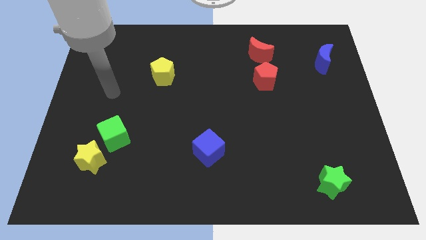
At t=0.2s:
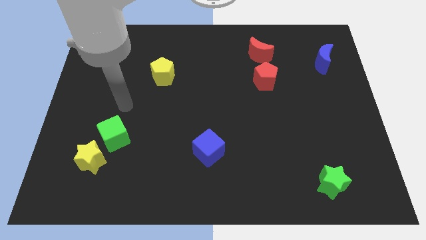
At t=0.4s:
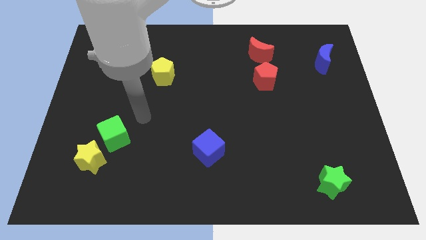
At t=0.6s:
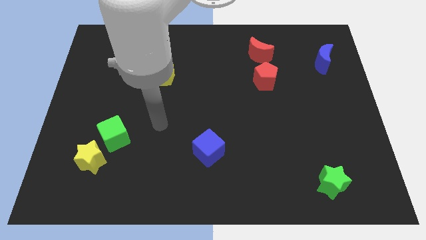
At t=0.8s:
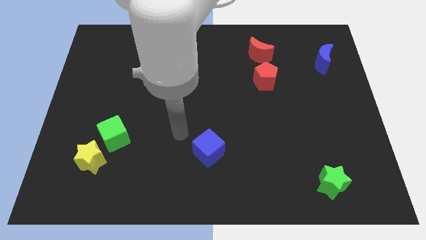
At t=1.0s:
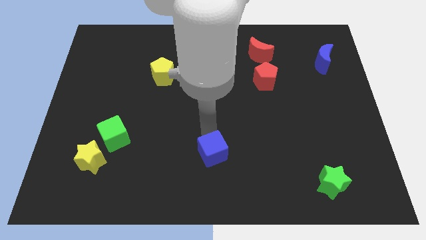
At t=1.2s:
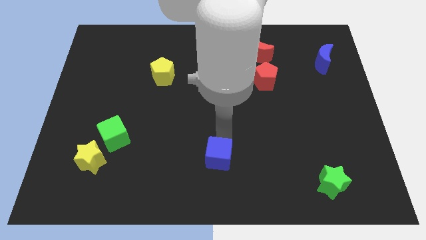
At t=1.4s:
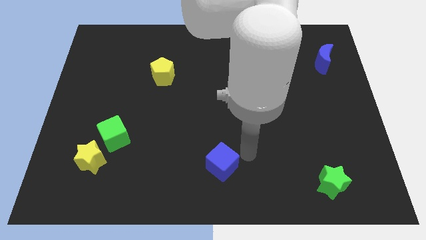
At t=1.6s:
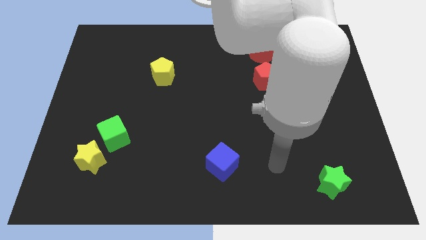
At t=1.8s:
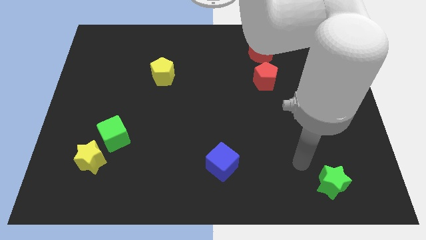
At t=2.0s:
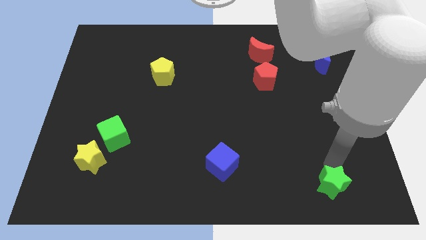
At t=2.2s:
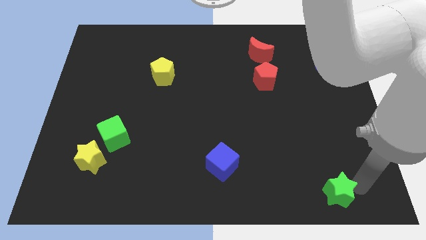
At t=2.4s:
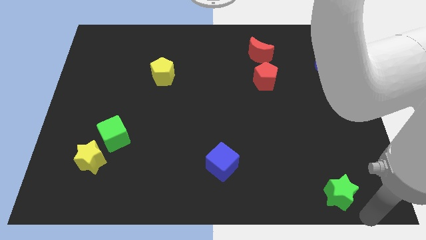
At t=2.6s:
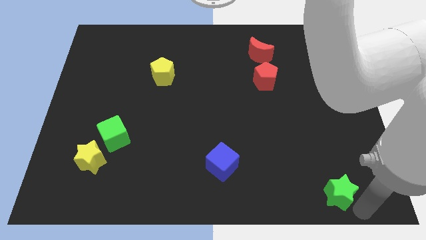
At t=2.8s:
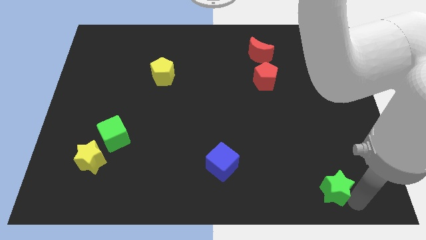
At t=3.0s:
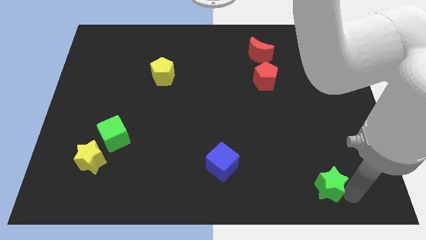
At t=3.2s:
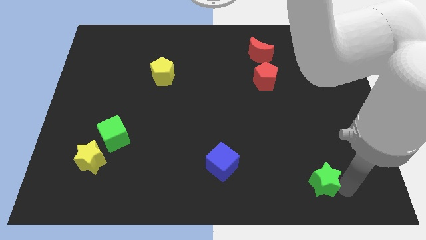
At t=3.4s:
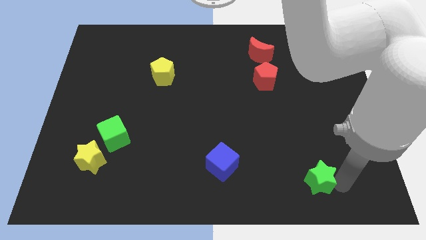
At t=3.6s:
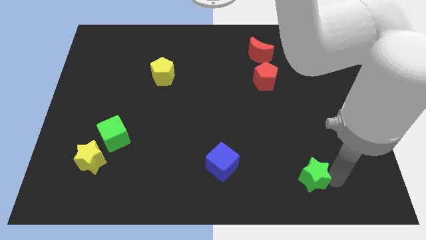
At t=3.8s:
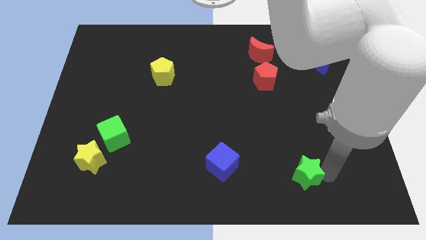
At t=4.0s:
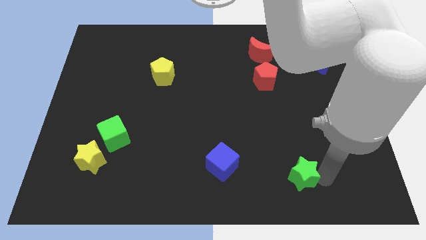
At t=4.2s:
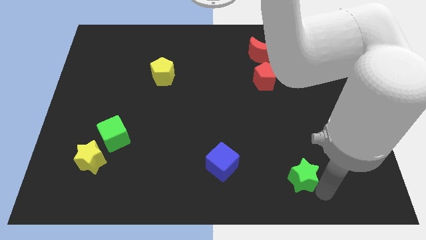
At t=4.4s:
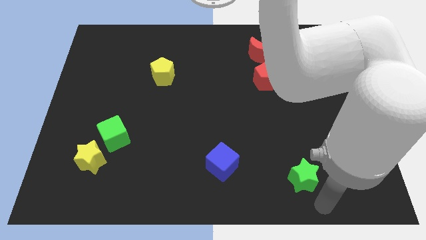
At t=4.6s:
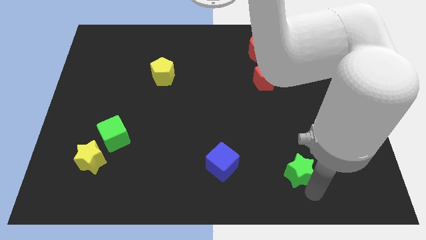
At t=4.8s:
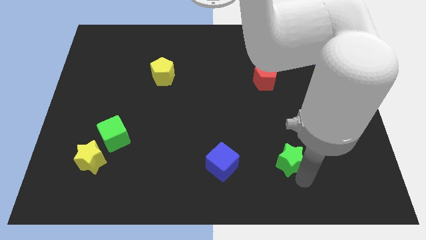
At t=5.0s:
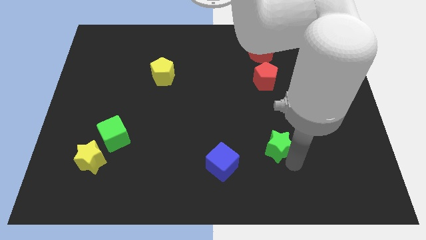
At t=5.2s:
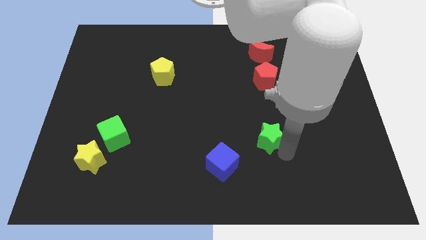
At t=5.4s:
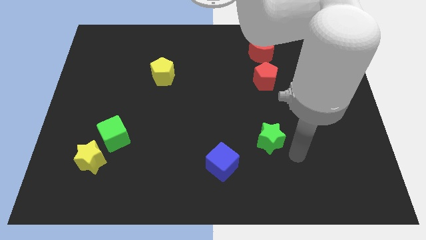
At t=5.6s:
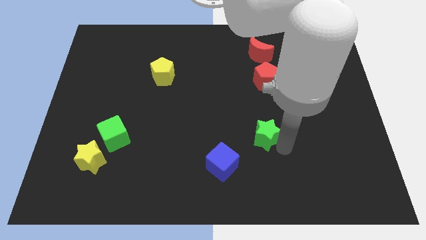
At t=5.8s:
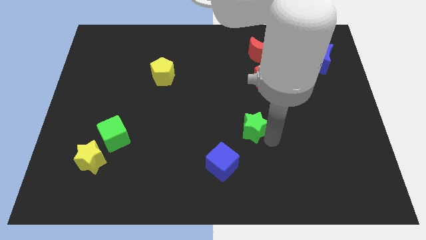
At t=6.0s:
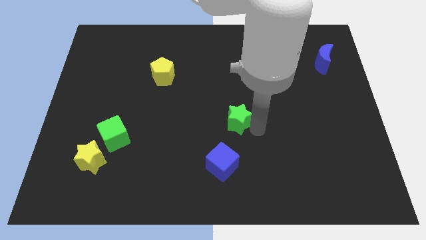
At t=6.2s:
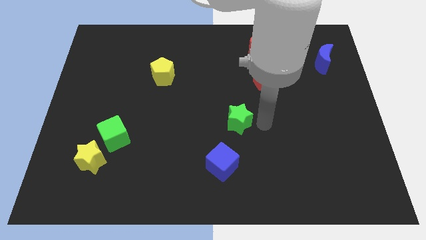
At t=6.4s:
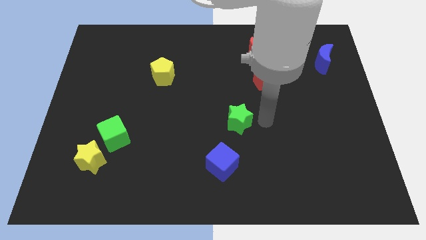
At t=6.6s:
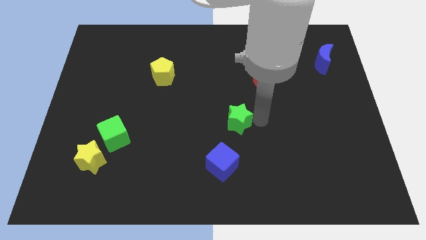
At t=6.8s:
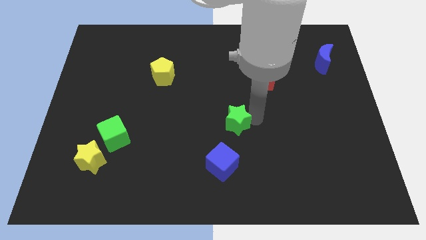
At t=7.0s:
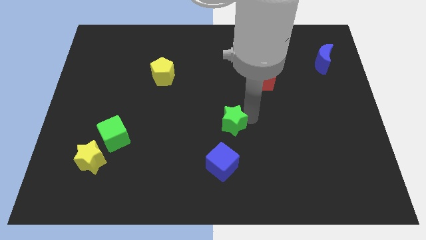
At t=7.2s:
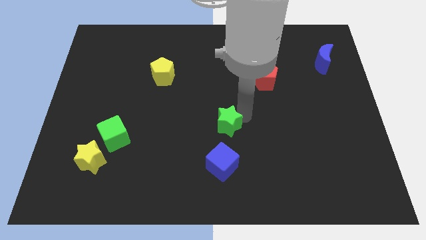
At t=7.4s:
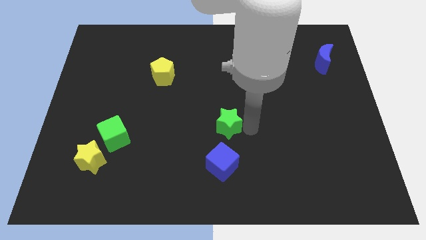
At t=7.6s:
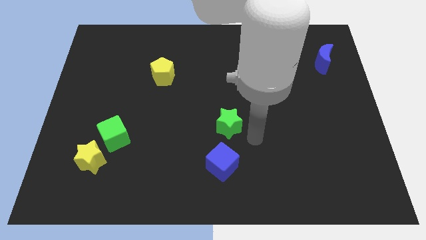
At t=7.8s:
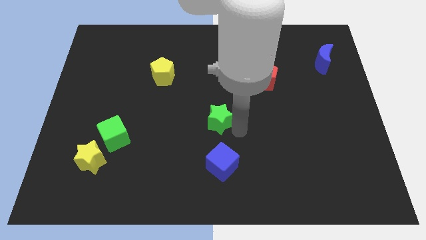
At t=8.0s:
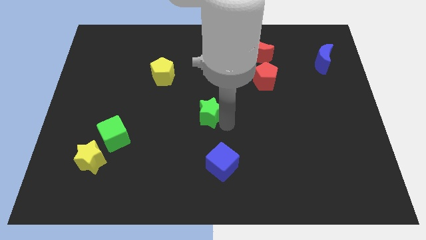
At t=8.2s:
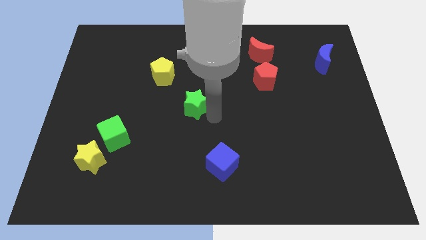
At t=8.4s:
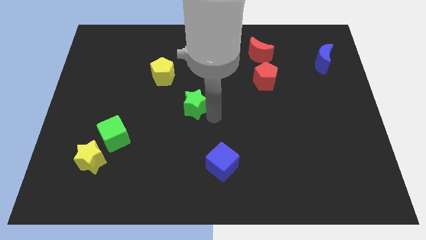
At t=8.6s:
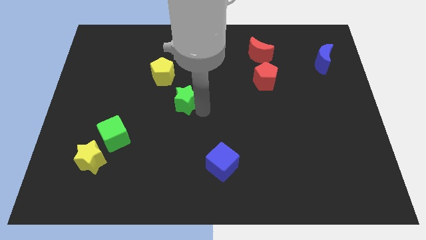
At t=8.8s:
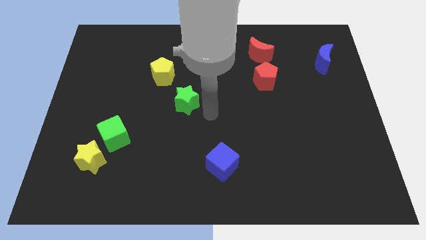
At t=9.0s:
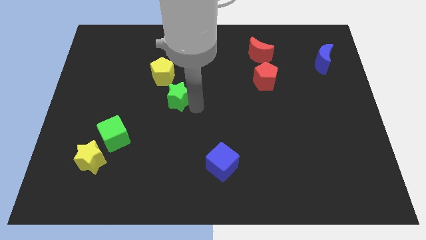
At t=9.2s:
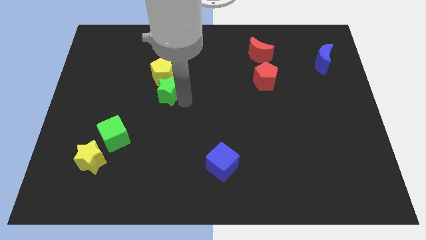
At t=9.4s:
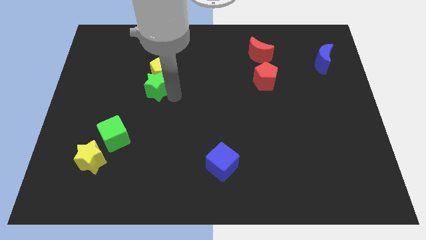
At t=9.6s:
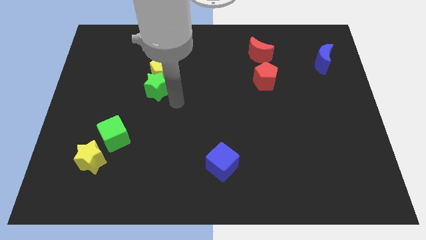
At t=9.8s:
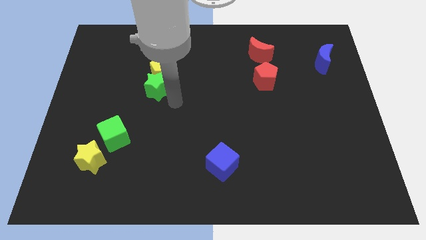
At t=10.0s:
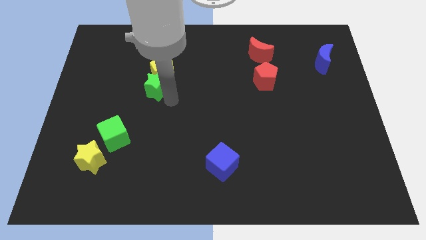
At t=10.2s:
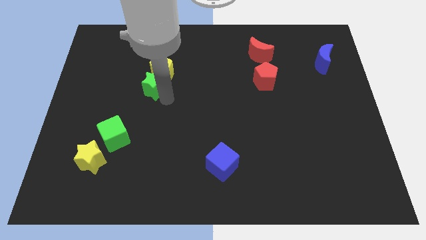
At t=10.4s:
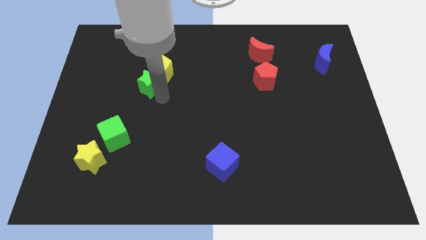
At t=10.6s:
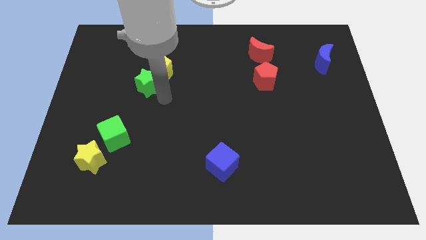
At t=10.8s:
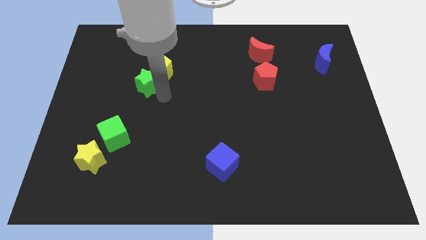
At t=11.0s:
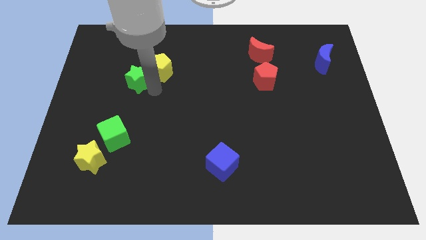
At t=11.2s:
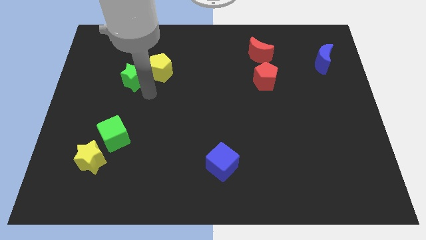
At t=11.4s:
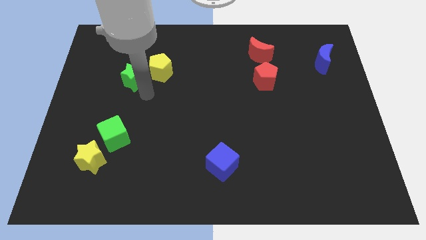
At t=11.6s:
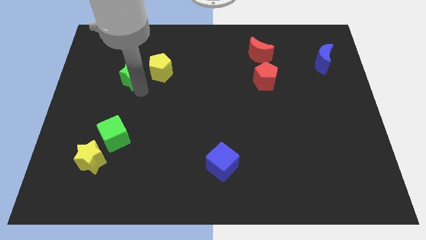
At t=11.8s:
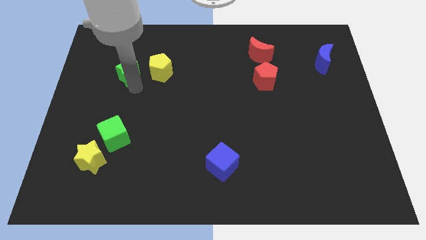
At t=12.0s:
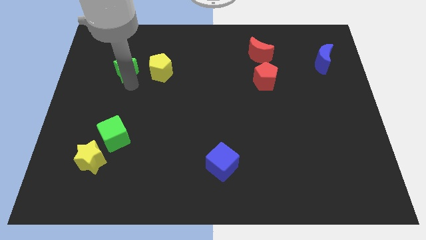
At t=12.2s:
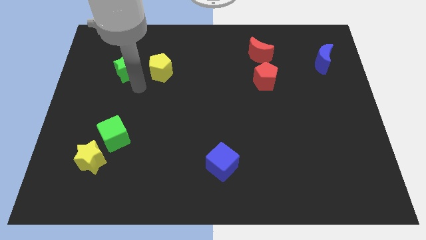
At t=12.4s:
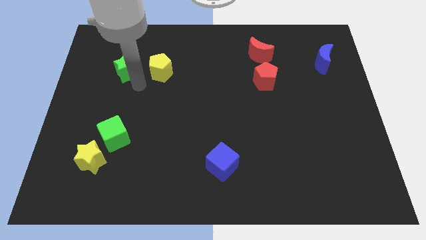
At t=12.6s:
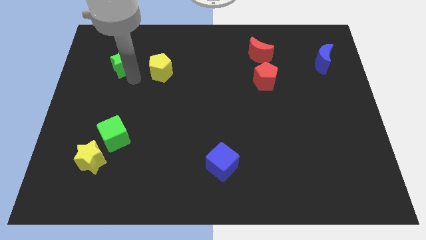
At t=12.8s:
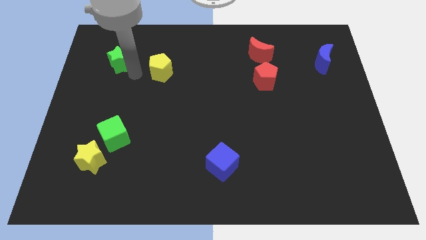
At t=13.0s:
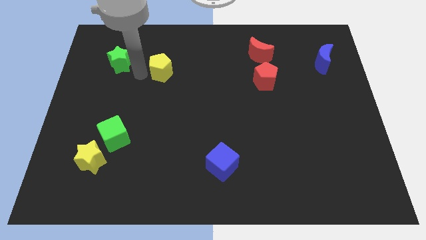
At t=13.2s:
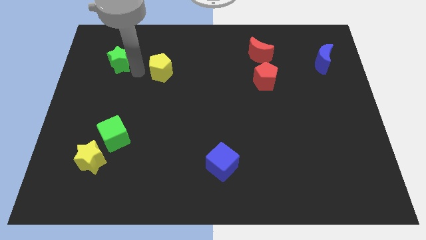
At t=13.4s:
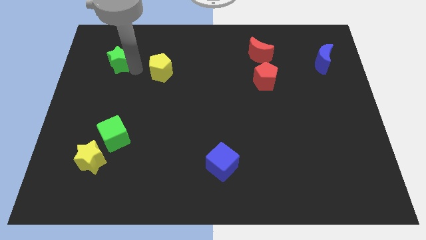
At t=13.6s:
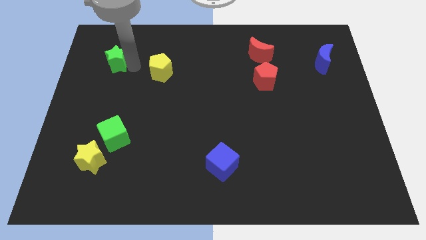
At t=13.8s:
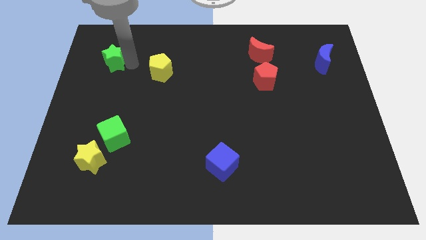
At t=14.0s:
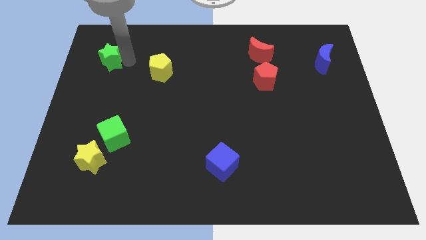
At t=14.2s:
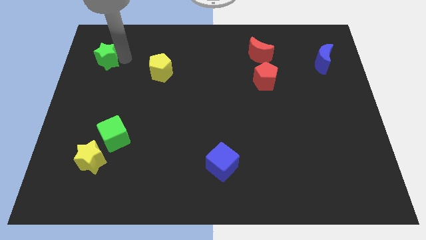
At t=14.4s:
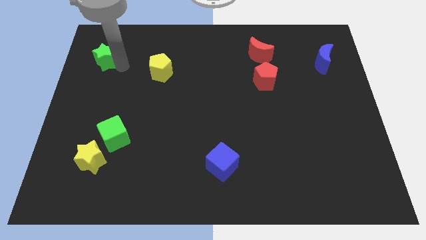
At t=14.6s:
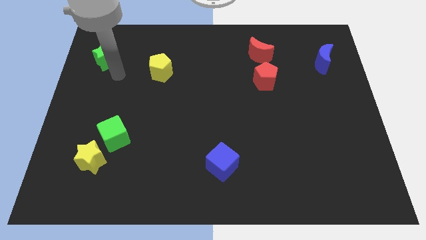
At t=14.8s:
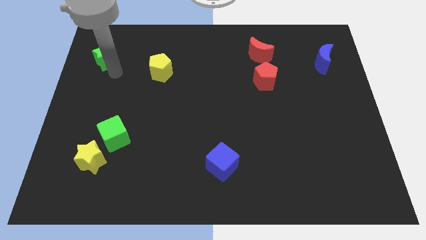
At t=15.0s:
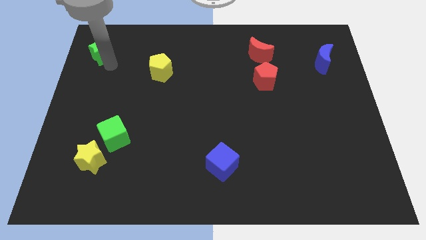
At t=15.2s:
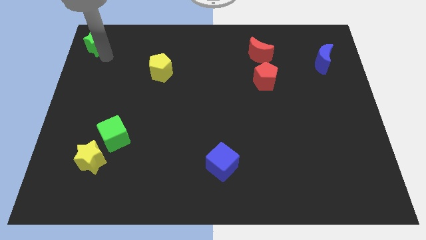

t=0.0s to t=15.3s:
slide the green star to the upper left corner
